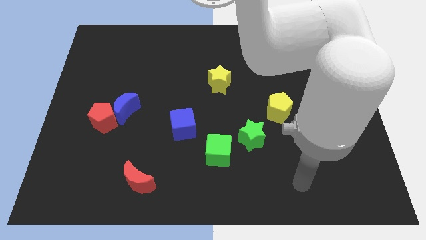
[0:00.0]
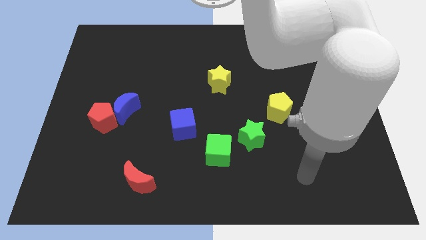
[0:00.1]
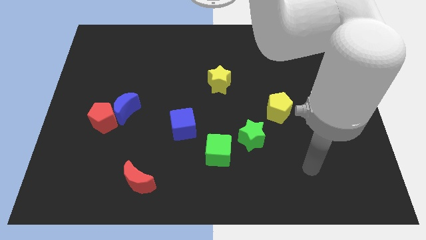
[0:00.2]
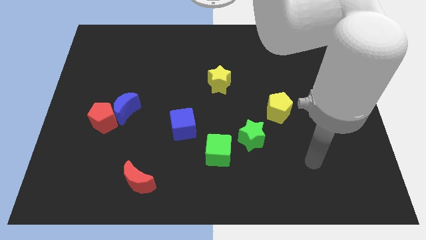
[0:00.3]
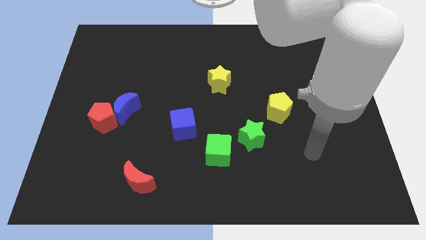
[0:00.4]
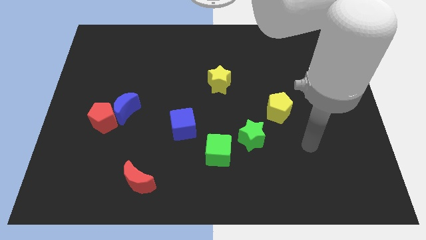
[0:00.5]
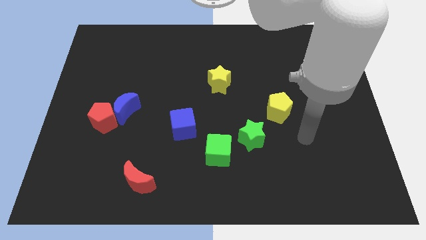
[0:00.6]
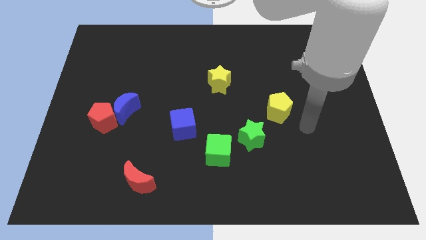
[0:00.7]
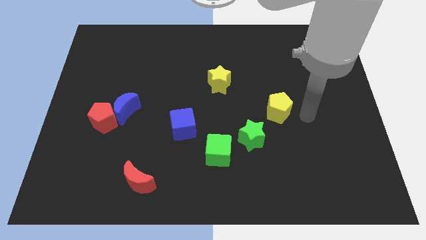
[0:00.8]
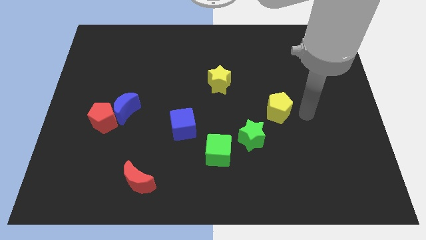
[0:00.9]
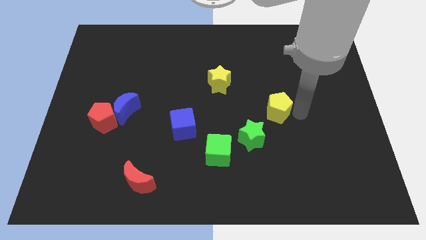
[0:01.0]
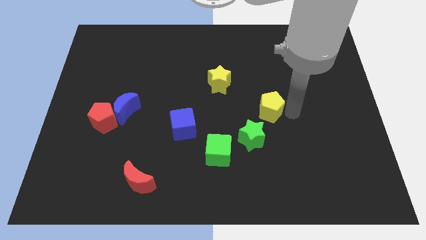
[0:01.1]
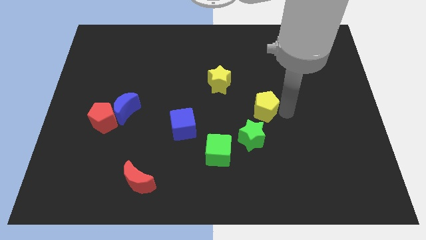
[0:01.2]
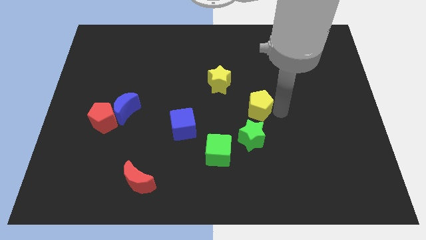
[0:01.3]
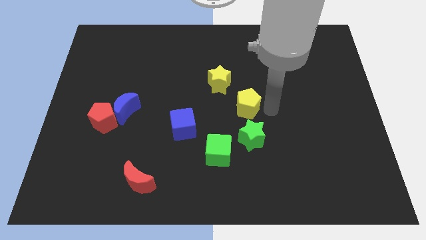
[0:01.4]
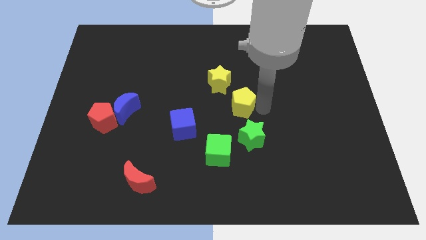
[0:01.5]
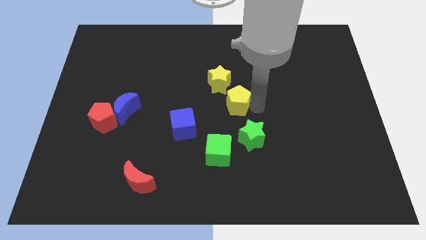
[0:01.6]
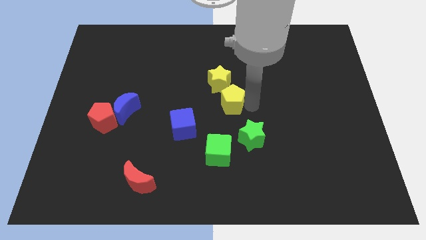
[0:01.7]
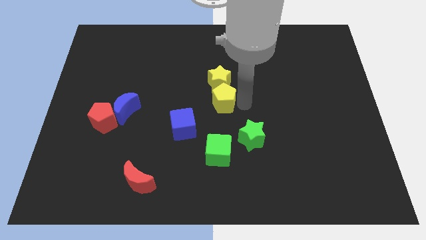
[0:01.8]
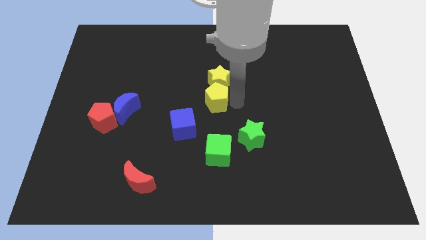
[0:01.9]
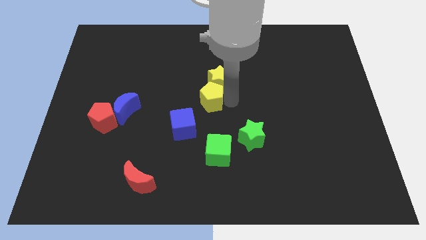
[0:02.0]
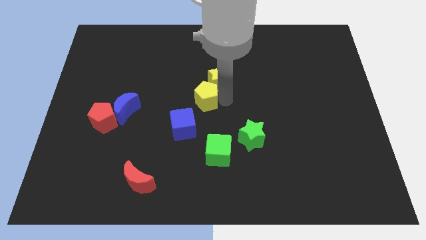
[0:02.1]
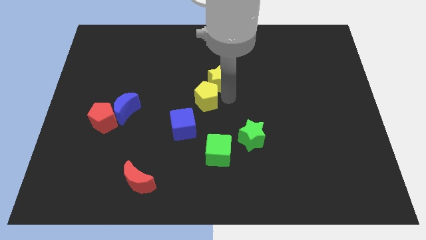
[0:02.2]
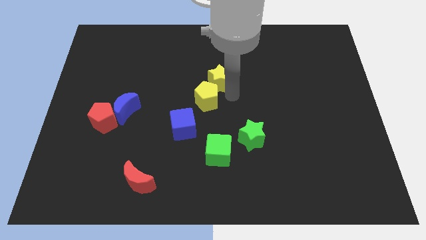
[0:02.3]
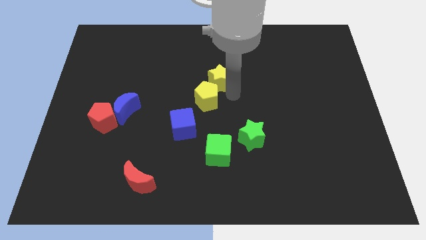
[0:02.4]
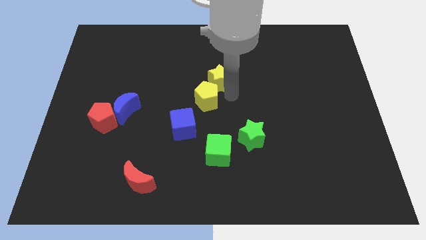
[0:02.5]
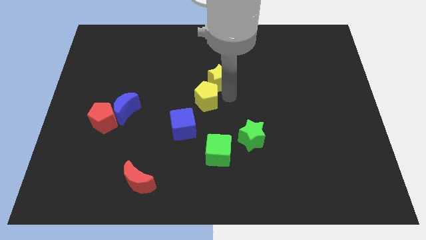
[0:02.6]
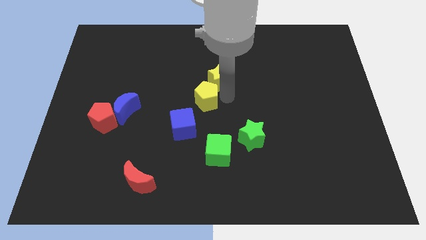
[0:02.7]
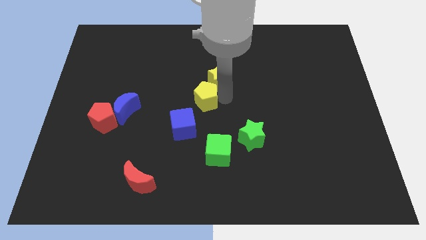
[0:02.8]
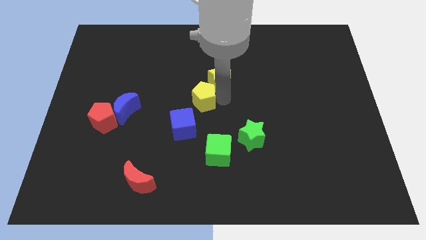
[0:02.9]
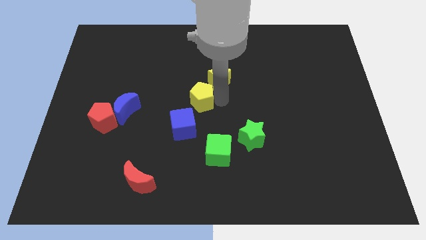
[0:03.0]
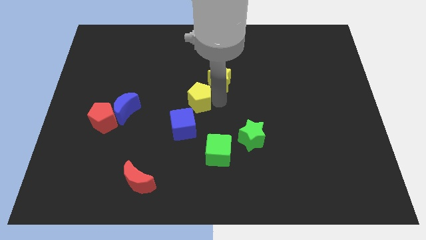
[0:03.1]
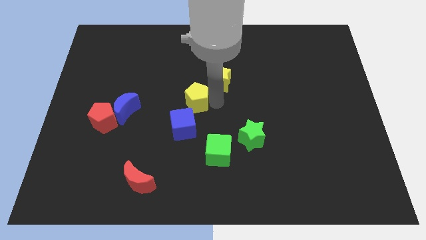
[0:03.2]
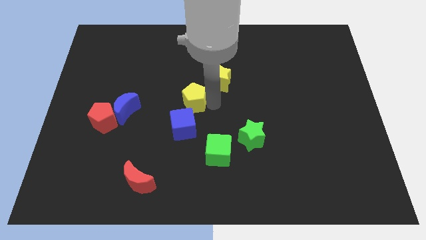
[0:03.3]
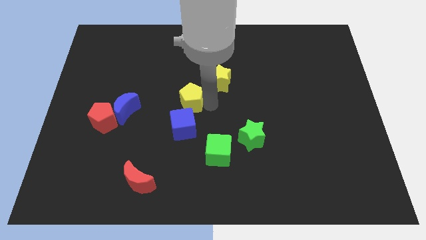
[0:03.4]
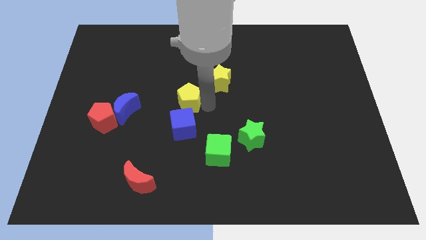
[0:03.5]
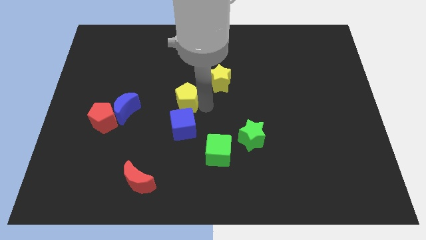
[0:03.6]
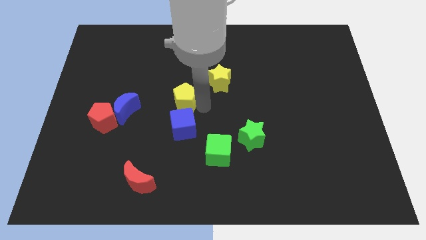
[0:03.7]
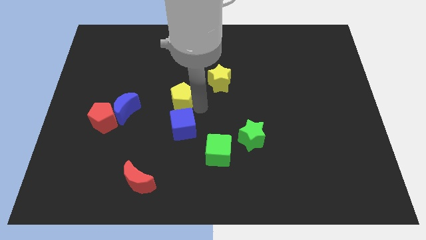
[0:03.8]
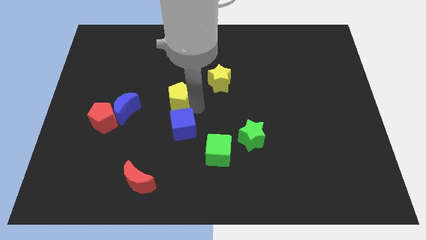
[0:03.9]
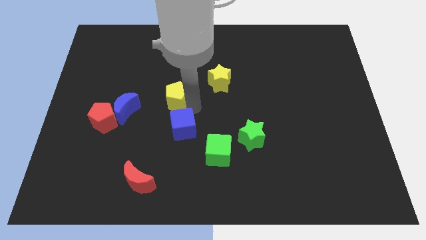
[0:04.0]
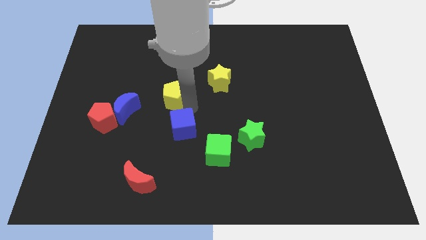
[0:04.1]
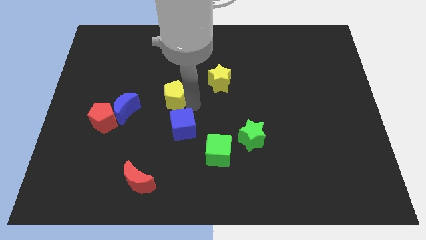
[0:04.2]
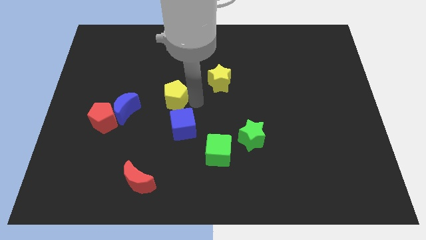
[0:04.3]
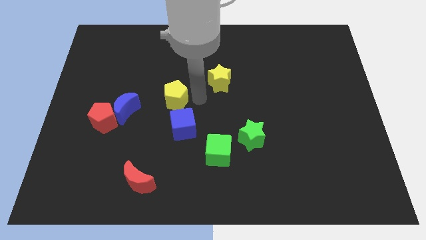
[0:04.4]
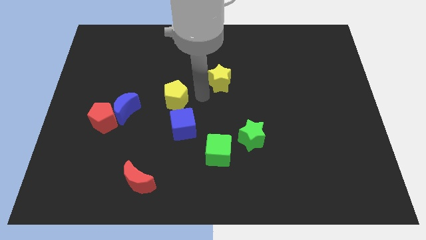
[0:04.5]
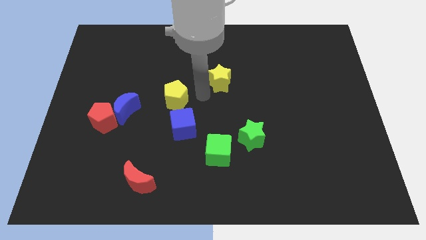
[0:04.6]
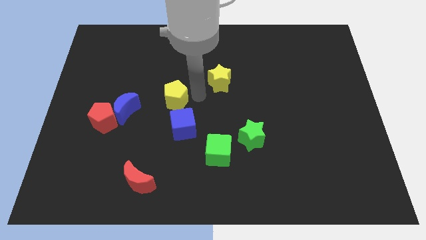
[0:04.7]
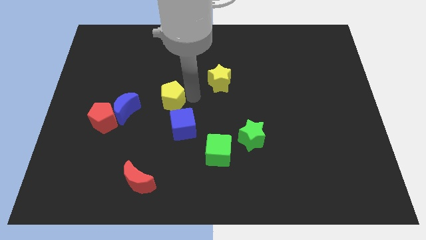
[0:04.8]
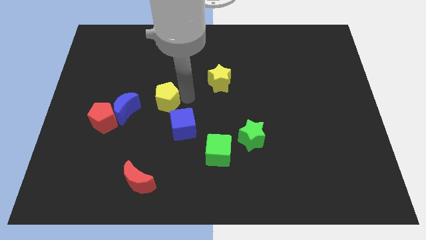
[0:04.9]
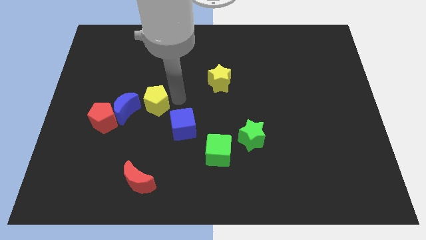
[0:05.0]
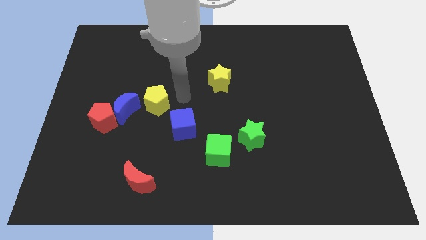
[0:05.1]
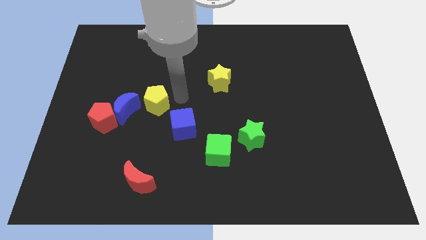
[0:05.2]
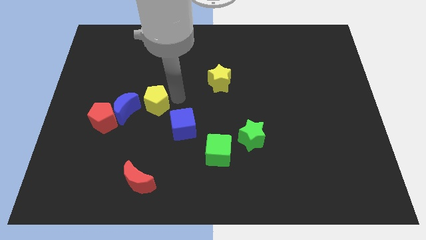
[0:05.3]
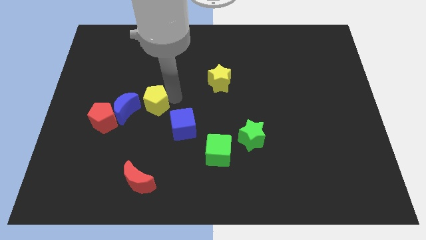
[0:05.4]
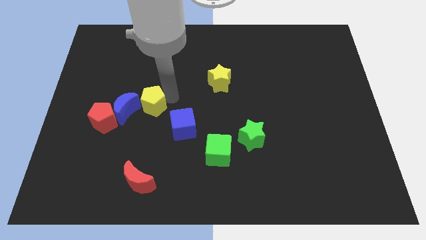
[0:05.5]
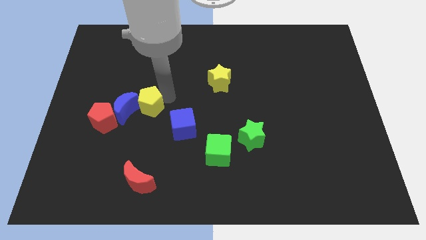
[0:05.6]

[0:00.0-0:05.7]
put the yellow pentagon to the blue moon

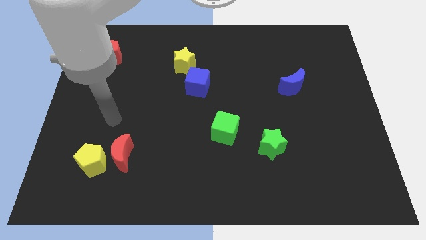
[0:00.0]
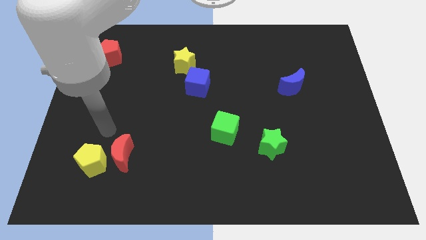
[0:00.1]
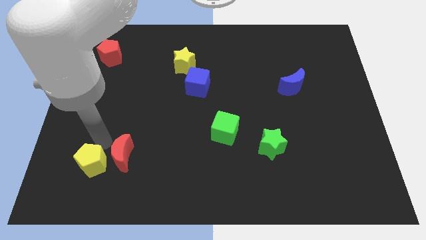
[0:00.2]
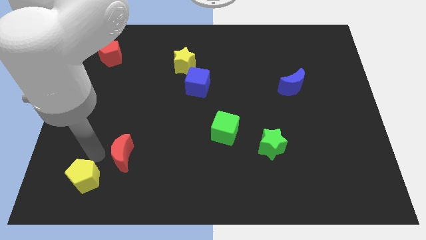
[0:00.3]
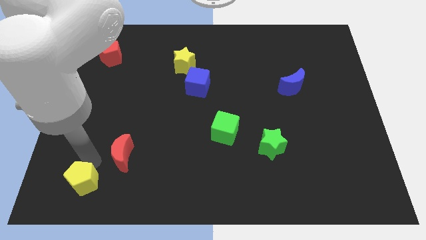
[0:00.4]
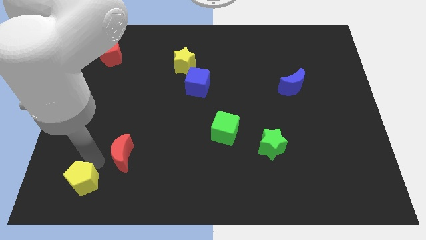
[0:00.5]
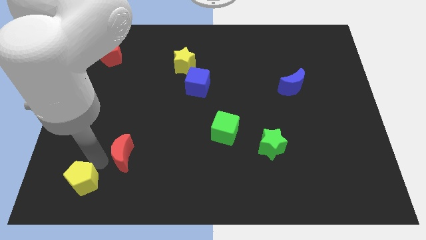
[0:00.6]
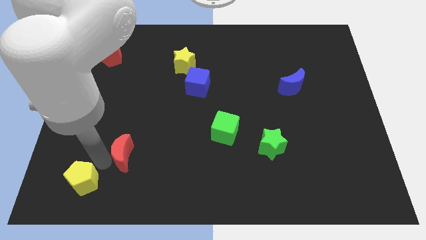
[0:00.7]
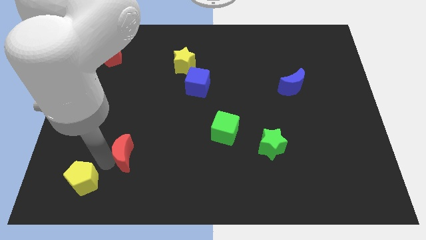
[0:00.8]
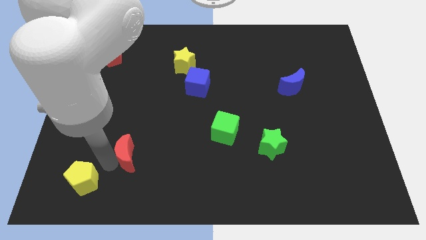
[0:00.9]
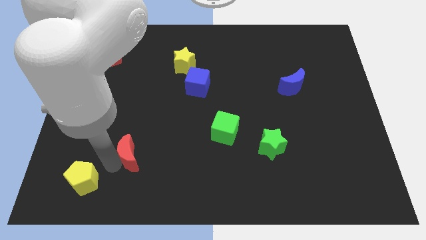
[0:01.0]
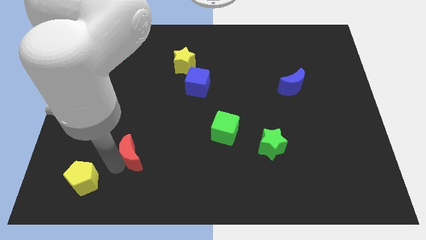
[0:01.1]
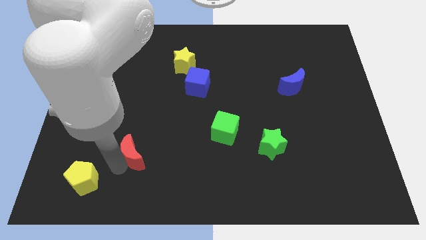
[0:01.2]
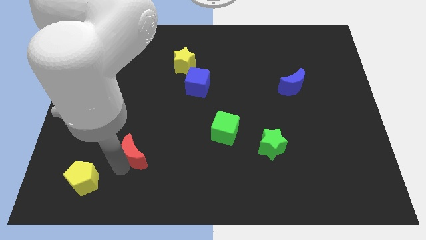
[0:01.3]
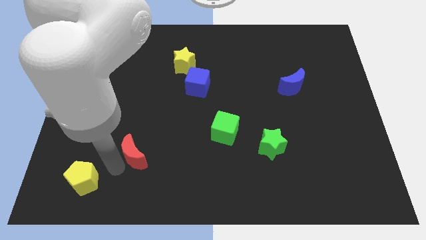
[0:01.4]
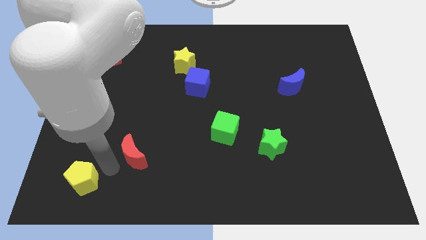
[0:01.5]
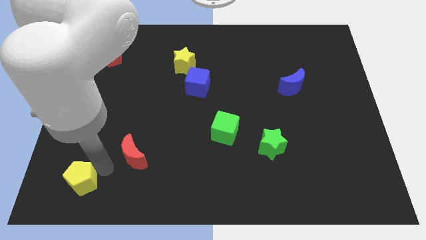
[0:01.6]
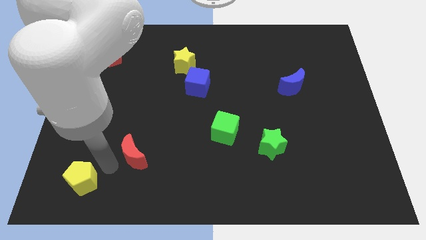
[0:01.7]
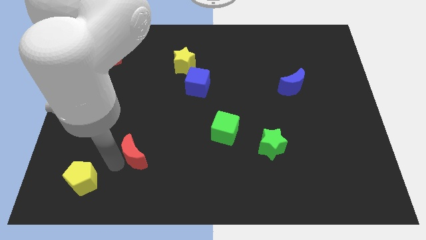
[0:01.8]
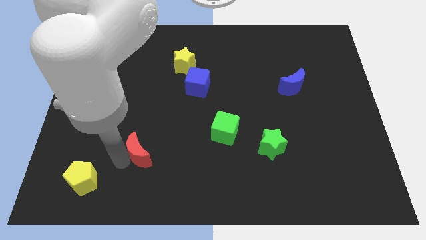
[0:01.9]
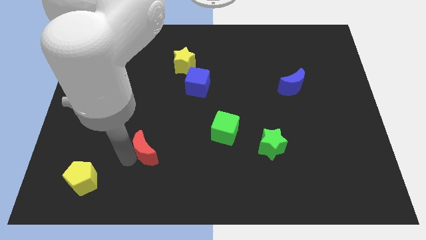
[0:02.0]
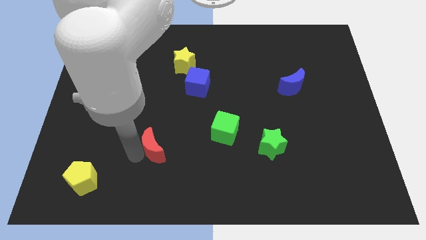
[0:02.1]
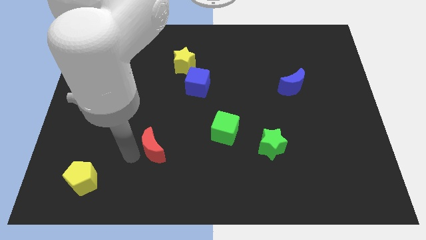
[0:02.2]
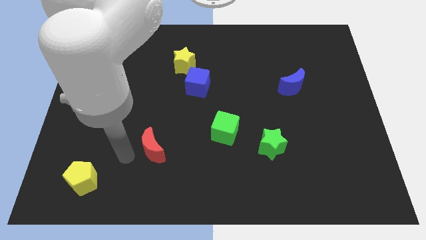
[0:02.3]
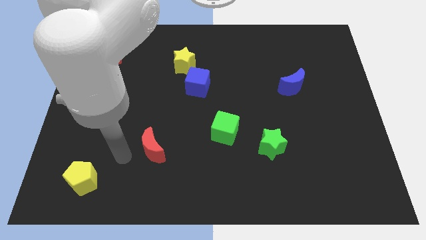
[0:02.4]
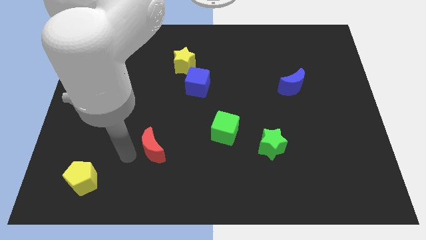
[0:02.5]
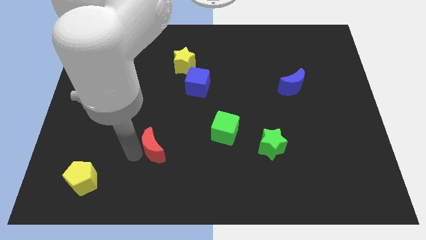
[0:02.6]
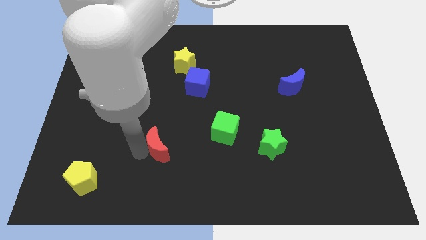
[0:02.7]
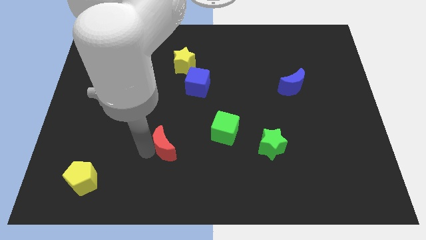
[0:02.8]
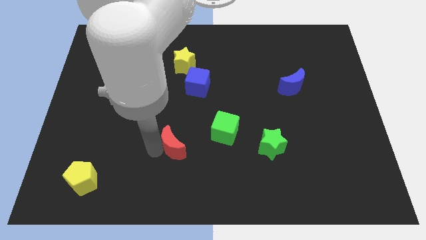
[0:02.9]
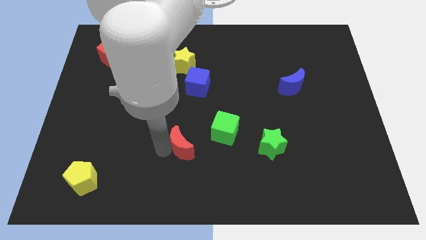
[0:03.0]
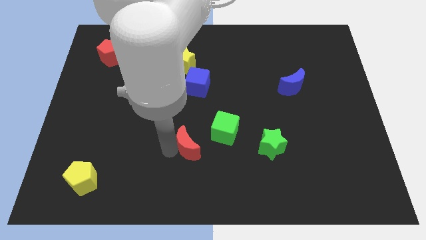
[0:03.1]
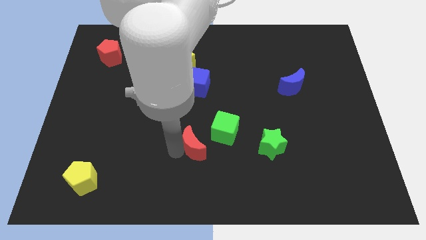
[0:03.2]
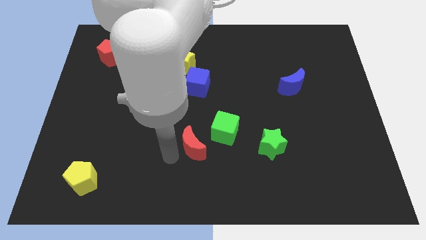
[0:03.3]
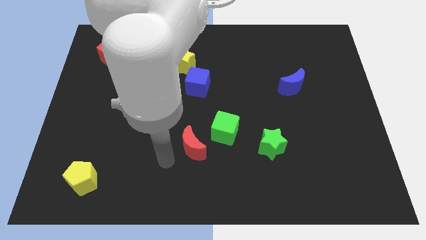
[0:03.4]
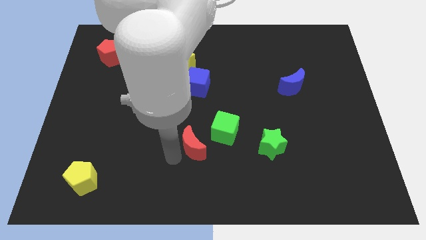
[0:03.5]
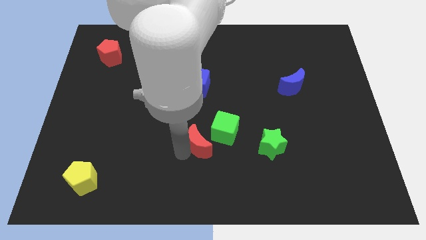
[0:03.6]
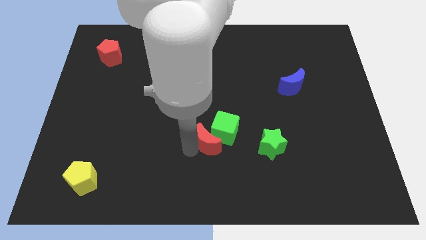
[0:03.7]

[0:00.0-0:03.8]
push the red moon to the green cube
